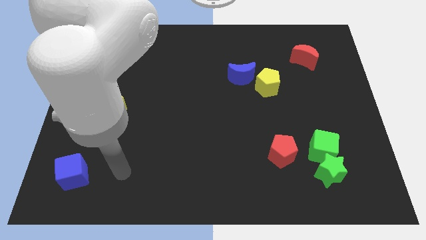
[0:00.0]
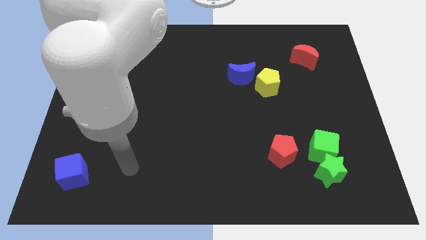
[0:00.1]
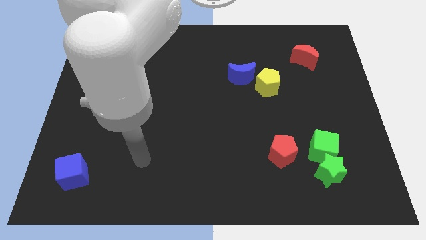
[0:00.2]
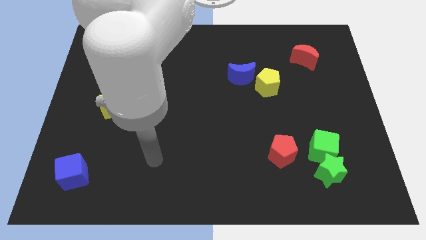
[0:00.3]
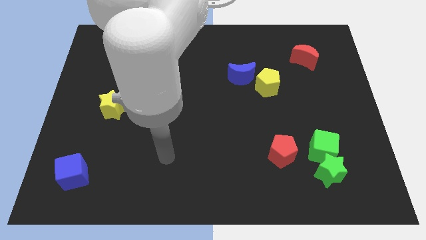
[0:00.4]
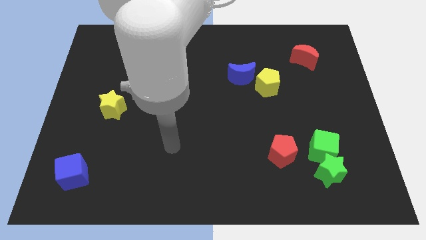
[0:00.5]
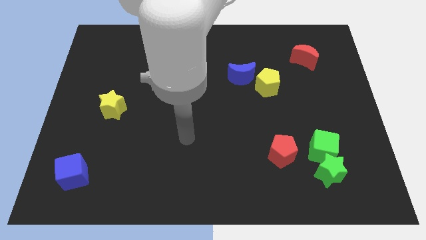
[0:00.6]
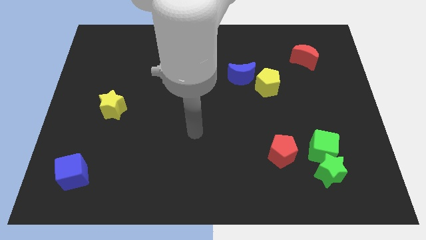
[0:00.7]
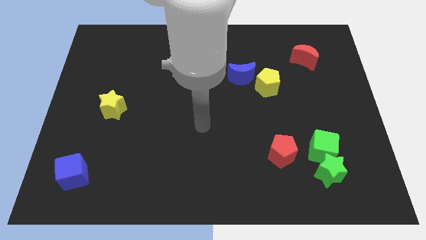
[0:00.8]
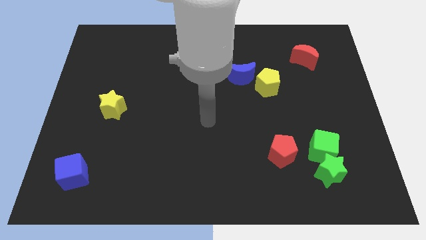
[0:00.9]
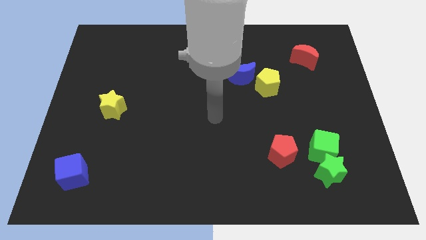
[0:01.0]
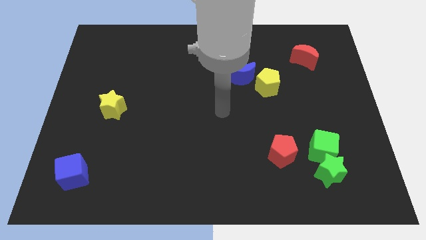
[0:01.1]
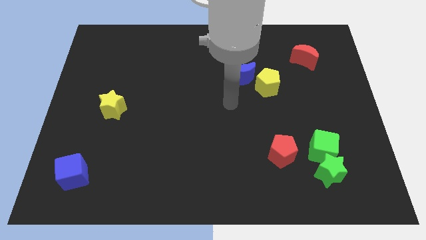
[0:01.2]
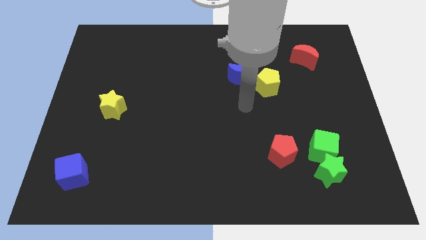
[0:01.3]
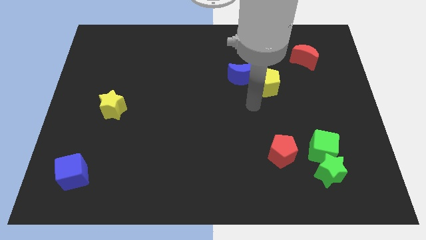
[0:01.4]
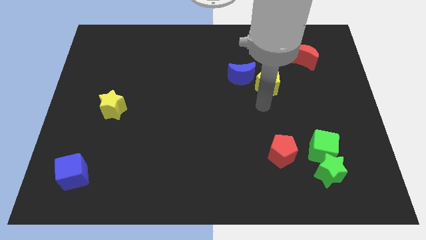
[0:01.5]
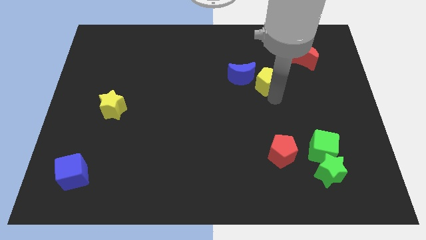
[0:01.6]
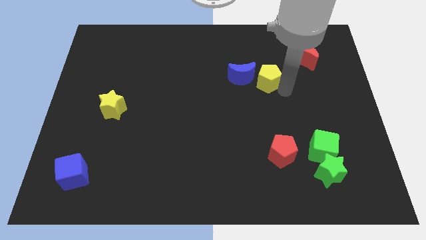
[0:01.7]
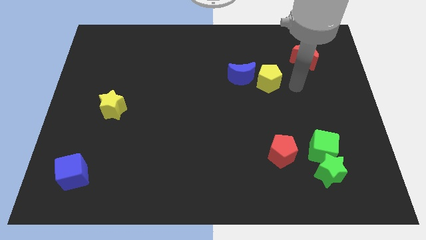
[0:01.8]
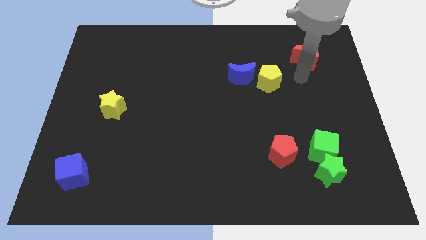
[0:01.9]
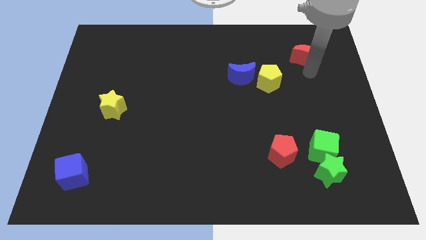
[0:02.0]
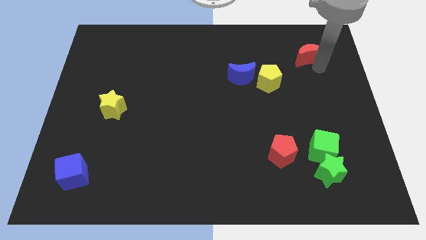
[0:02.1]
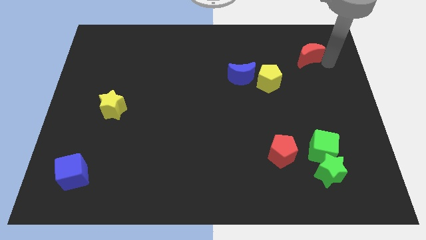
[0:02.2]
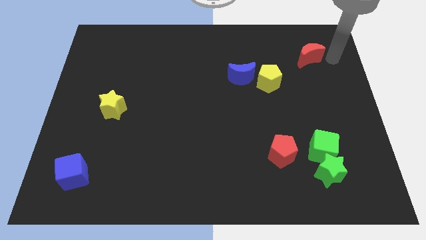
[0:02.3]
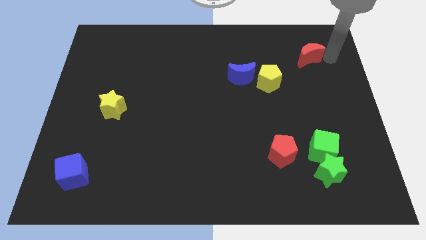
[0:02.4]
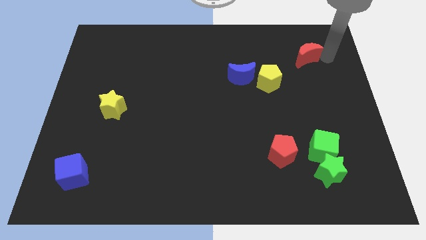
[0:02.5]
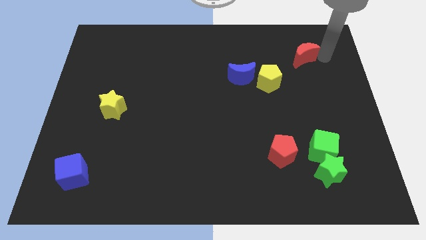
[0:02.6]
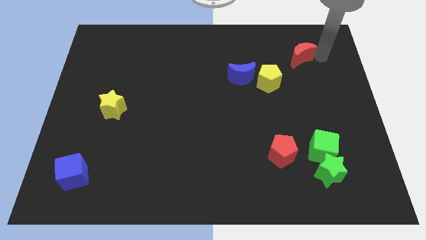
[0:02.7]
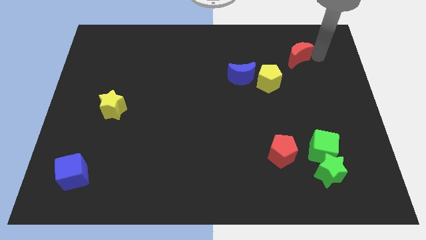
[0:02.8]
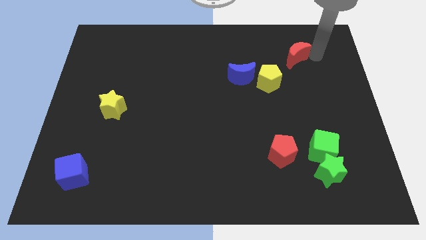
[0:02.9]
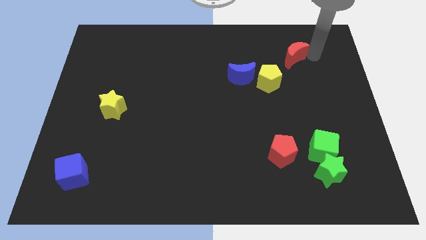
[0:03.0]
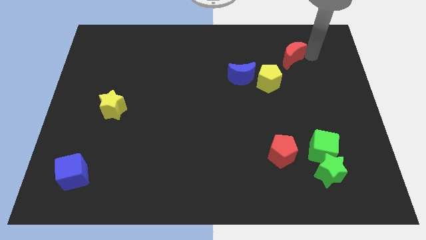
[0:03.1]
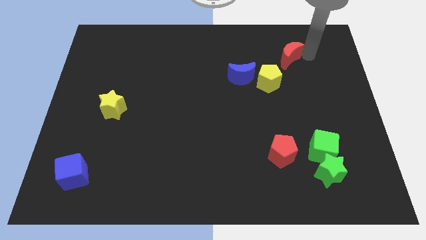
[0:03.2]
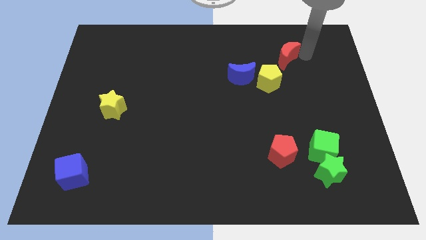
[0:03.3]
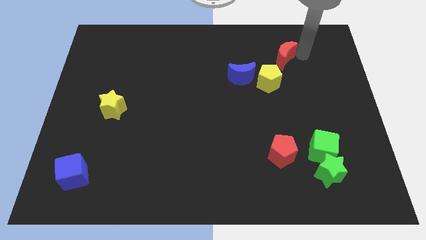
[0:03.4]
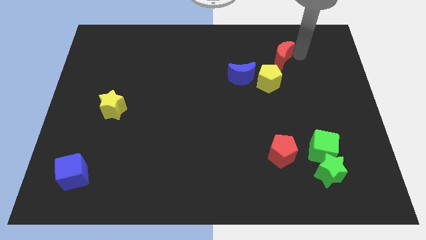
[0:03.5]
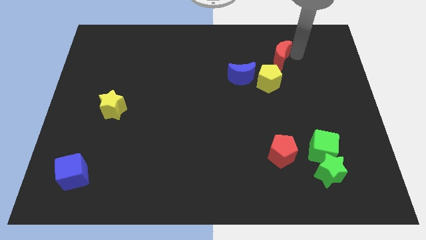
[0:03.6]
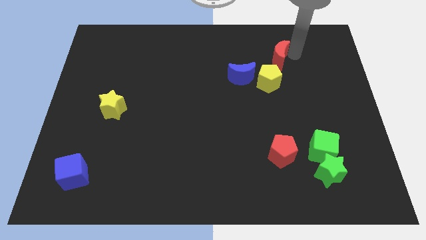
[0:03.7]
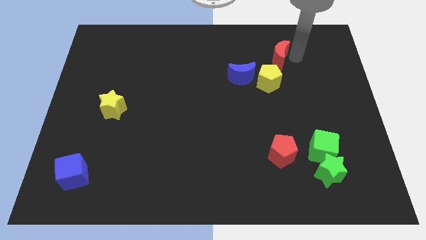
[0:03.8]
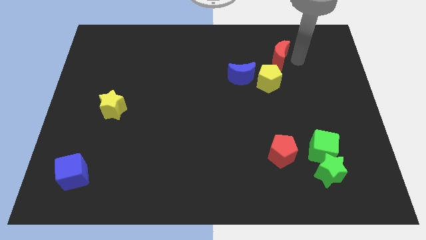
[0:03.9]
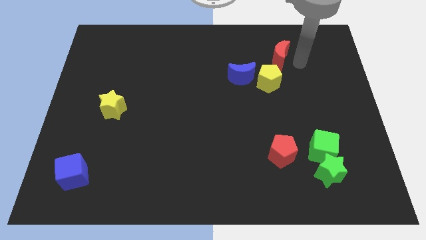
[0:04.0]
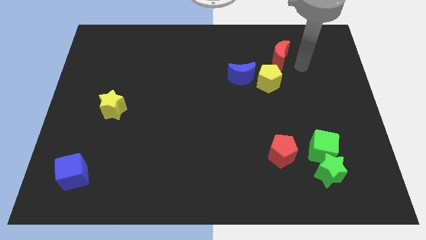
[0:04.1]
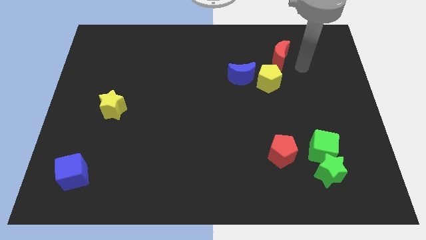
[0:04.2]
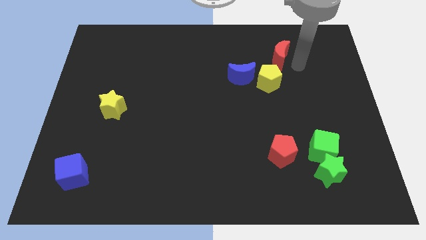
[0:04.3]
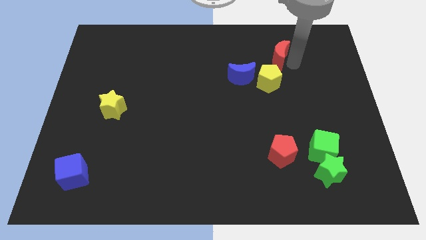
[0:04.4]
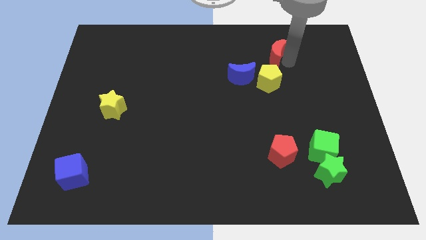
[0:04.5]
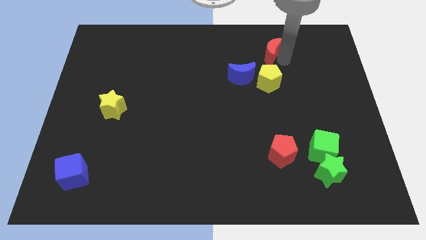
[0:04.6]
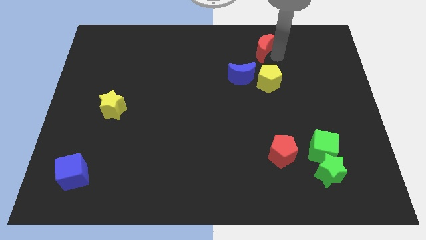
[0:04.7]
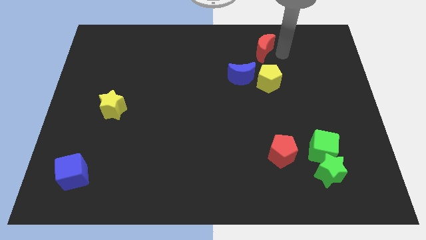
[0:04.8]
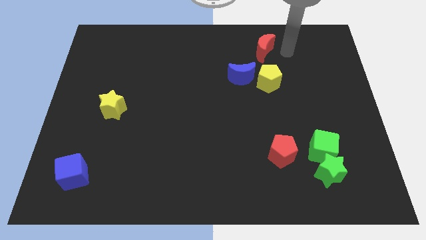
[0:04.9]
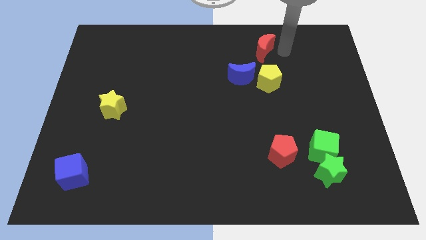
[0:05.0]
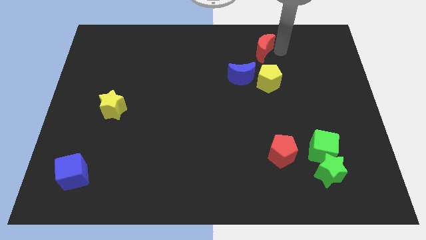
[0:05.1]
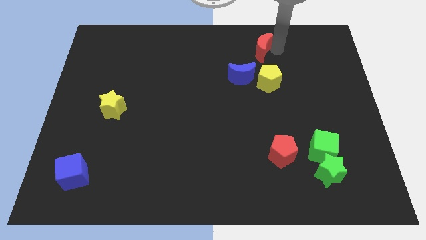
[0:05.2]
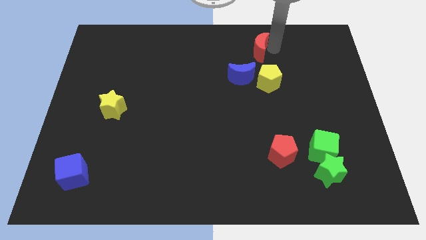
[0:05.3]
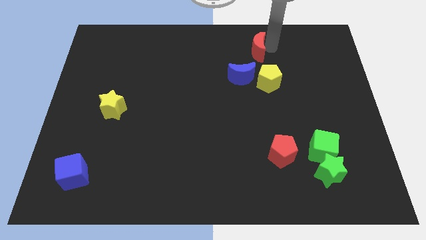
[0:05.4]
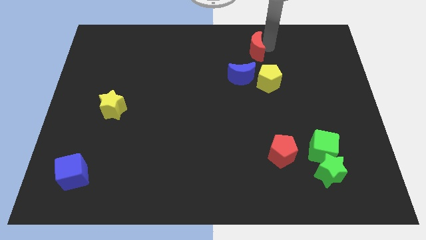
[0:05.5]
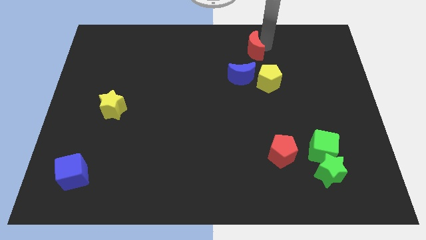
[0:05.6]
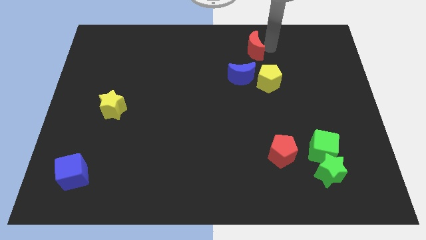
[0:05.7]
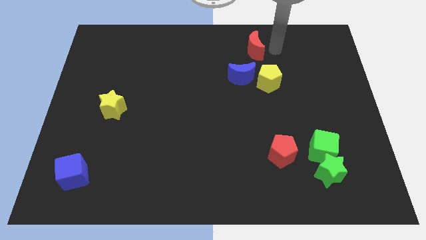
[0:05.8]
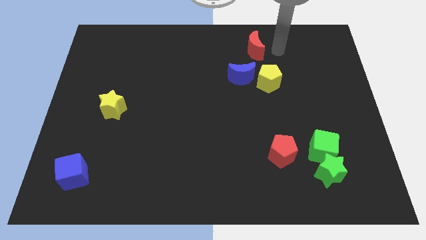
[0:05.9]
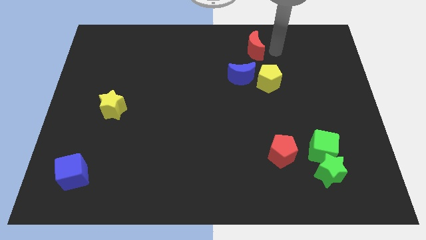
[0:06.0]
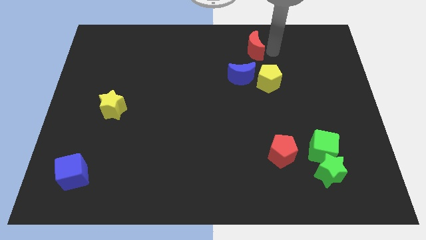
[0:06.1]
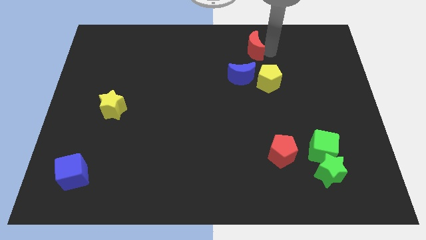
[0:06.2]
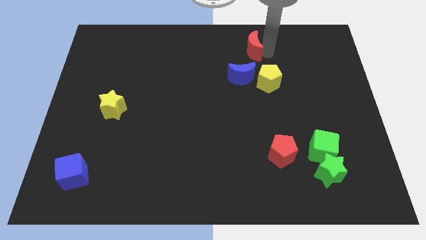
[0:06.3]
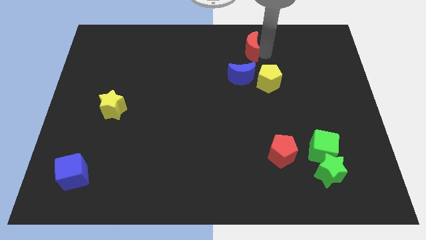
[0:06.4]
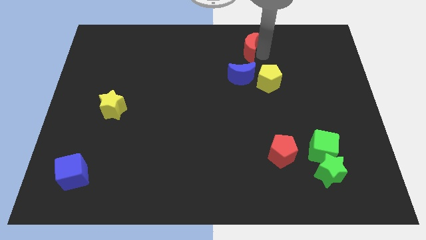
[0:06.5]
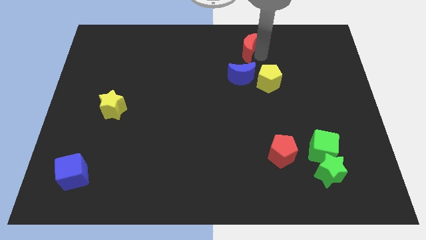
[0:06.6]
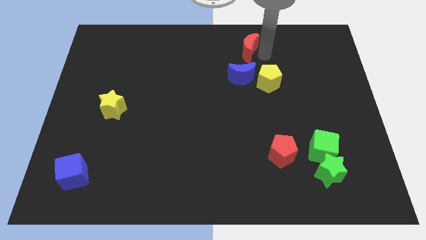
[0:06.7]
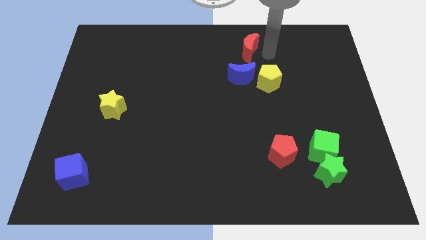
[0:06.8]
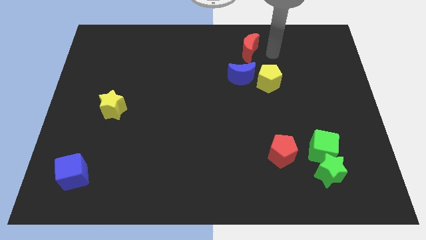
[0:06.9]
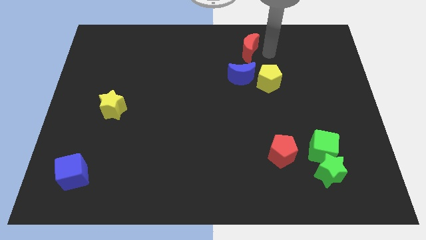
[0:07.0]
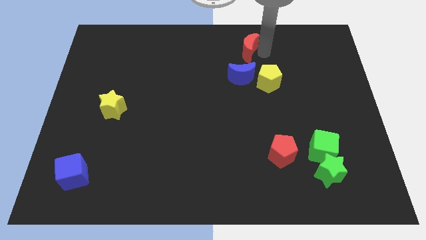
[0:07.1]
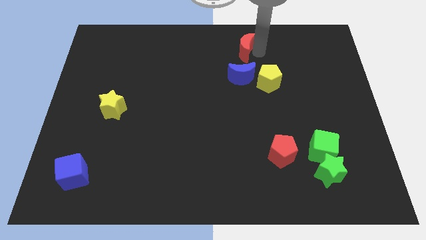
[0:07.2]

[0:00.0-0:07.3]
move the red moon to the top
